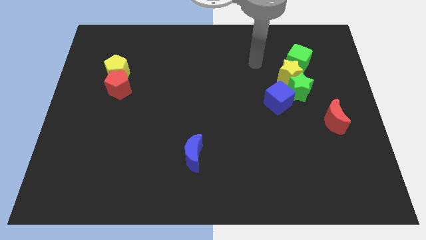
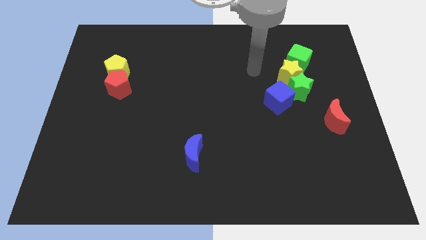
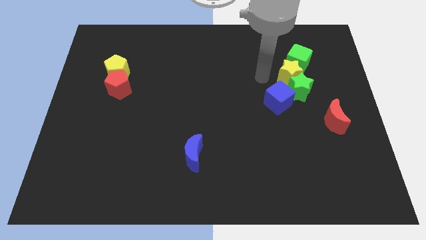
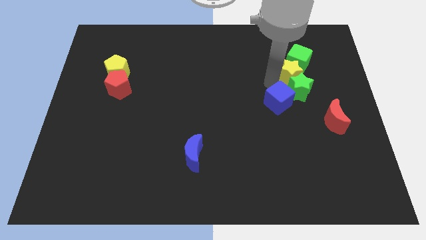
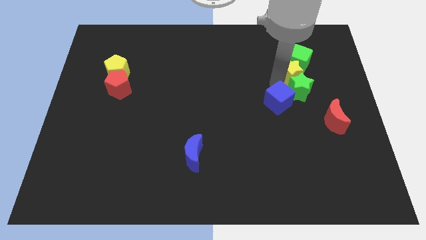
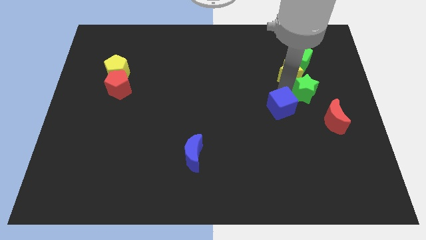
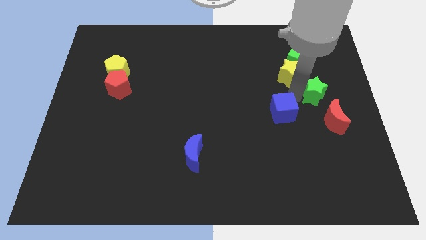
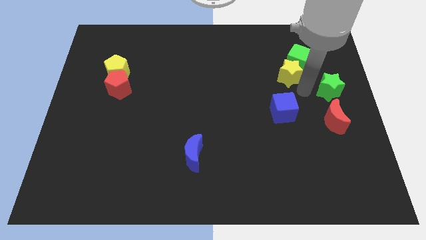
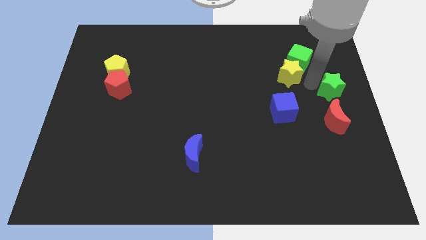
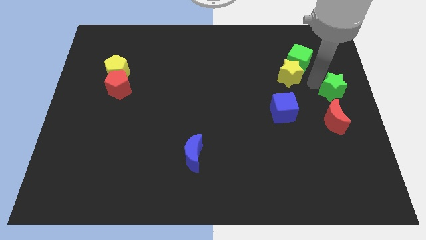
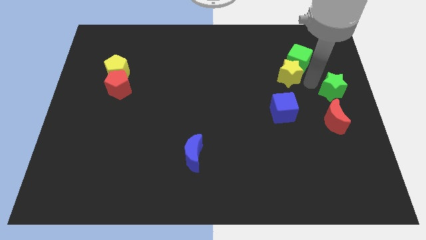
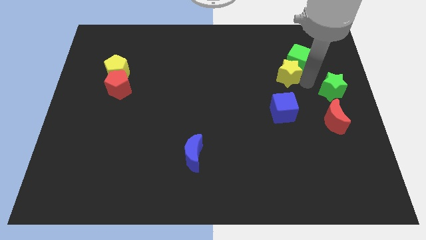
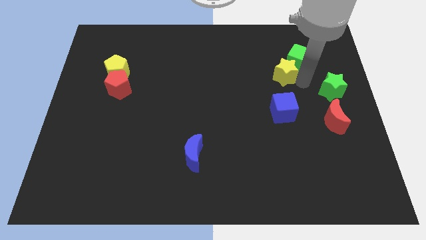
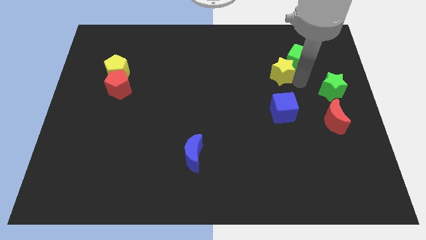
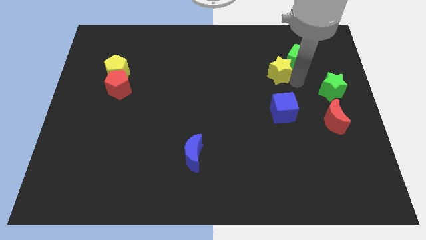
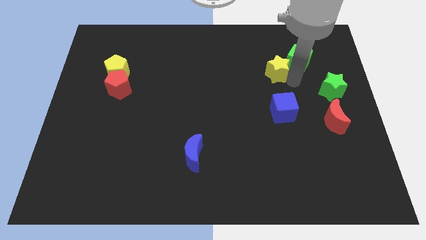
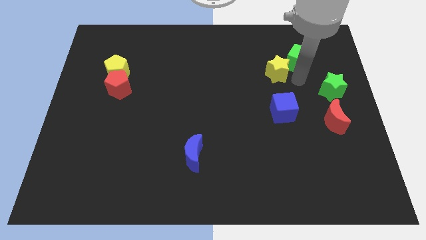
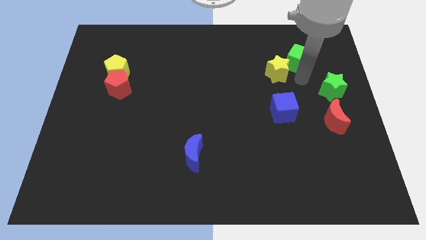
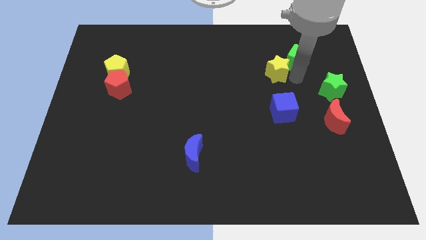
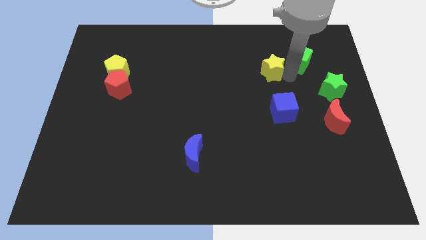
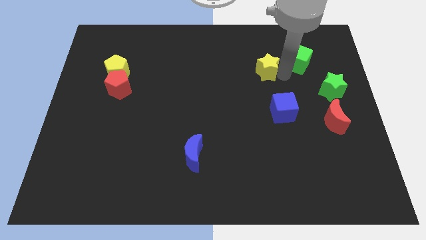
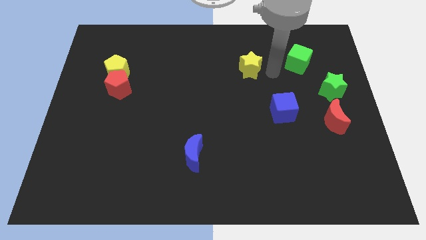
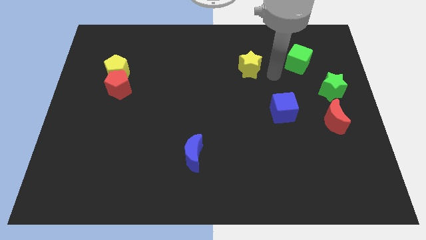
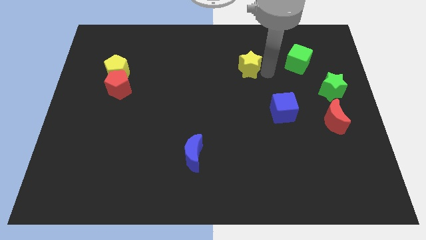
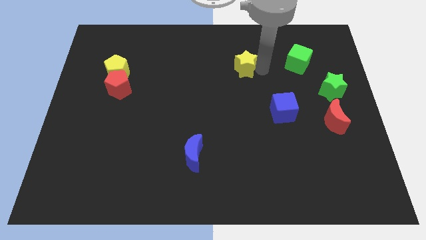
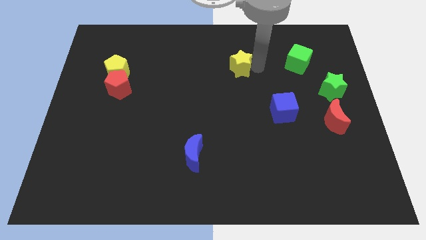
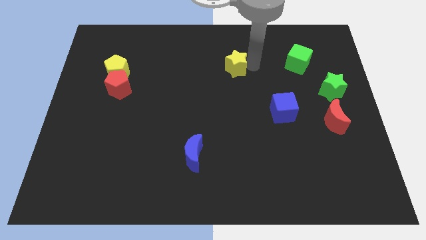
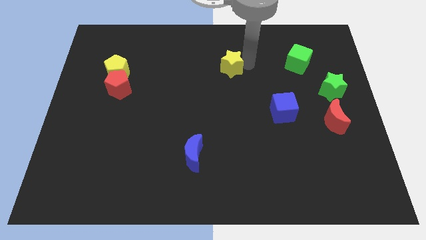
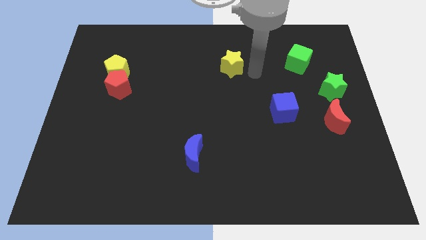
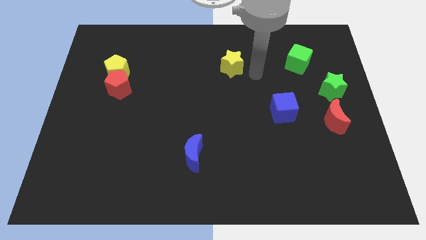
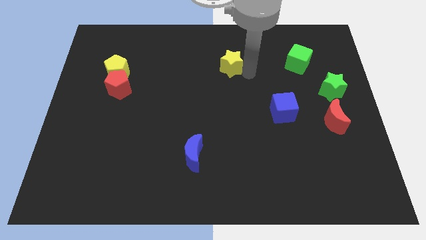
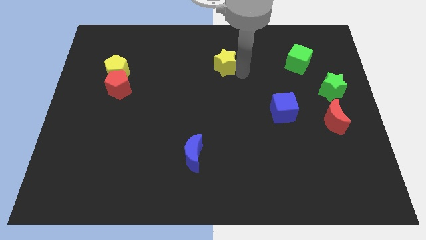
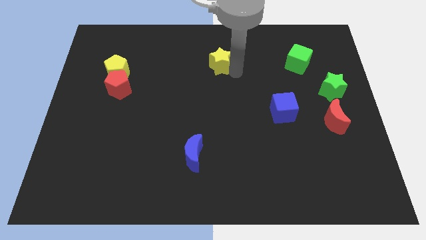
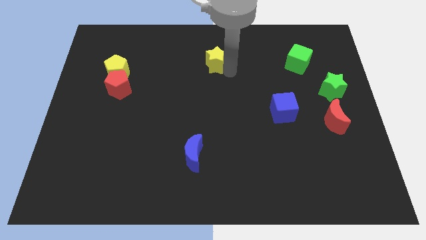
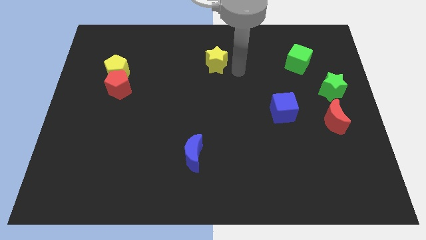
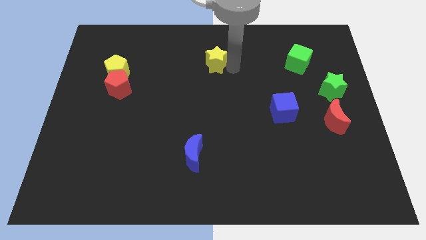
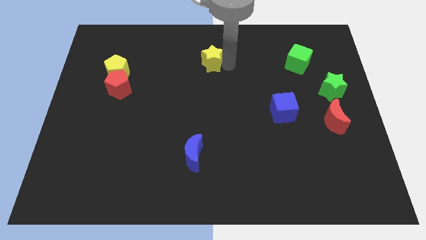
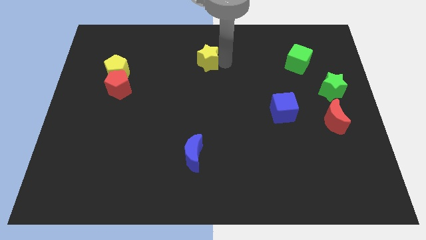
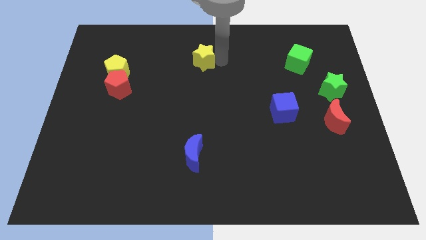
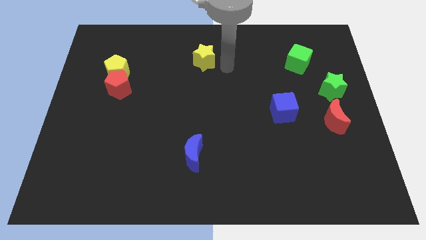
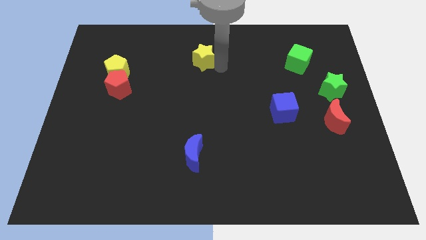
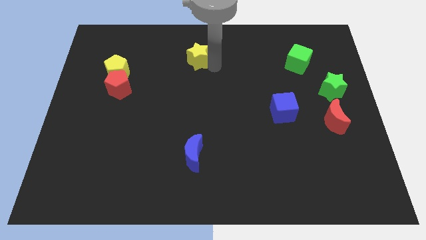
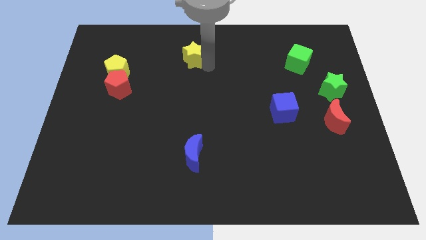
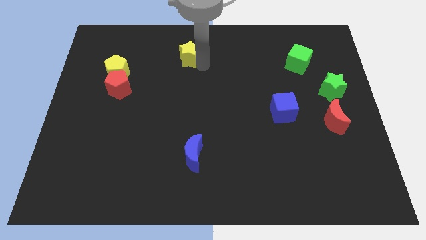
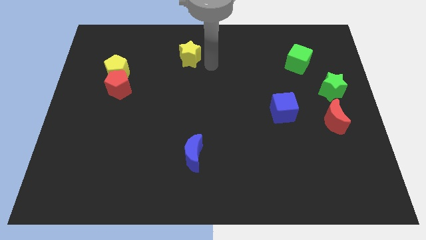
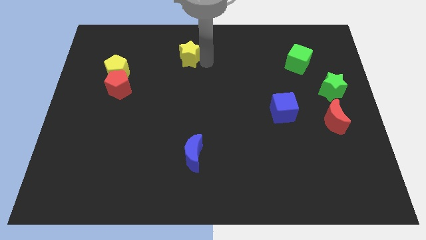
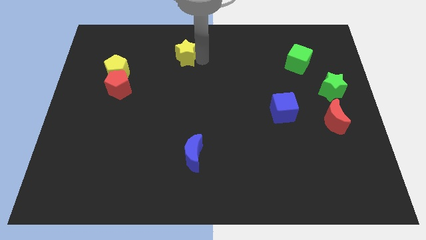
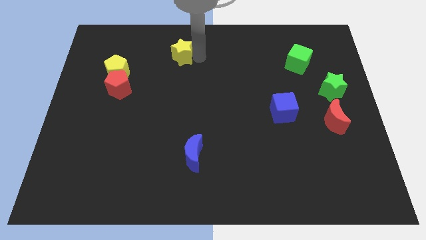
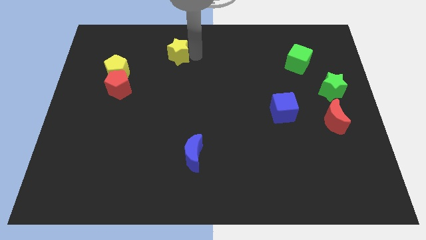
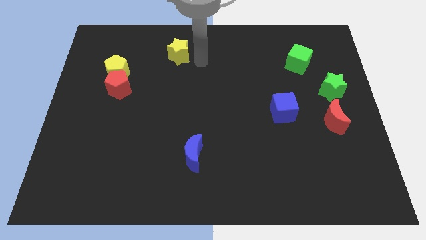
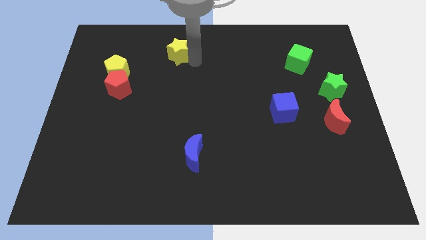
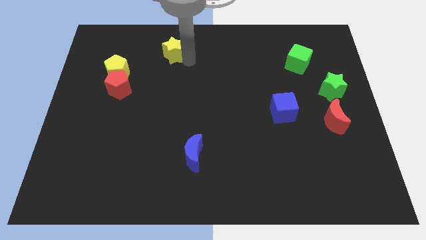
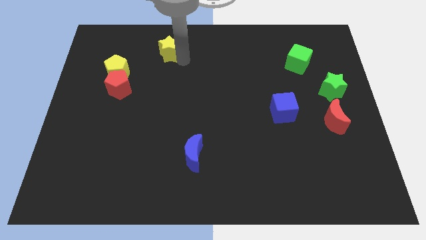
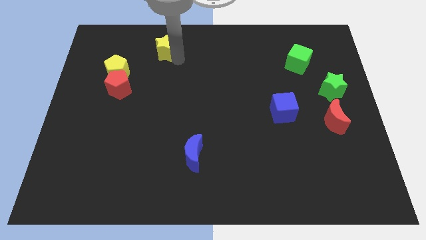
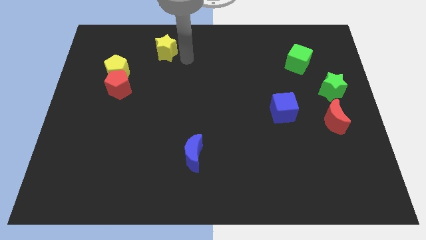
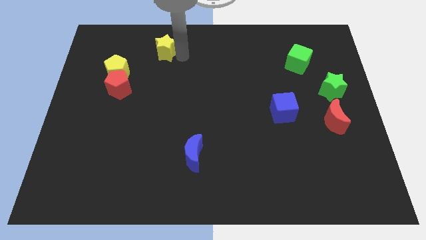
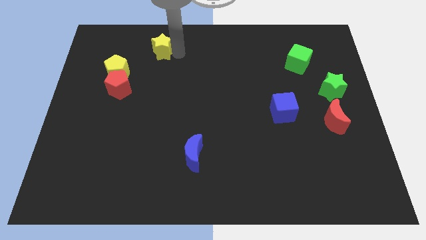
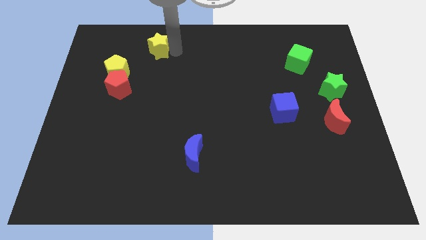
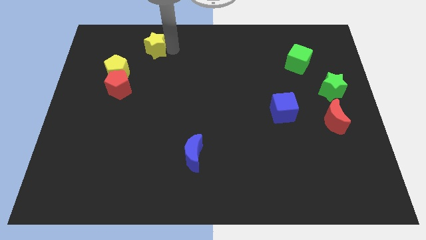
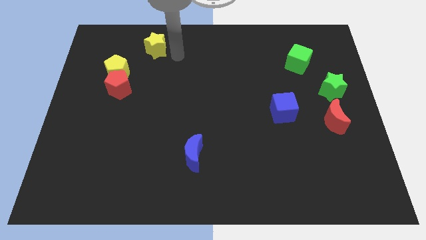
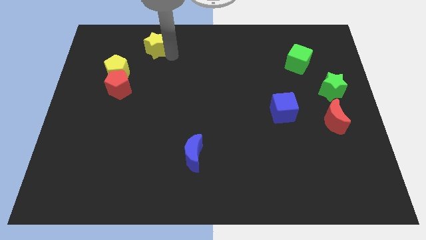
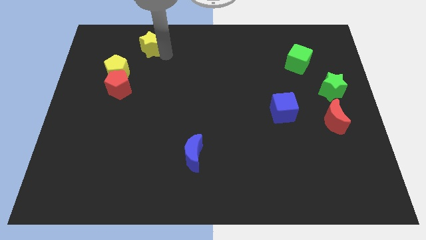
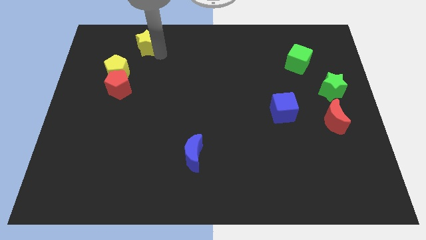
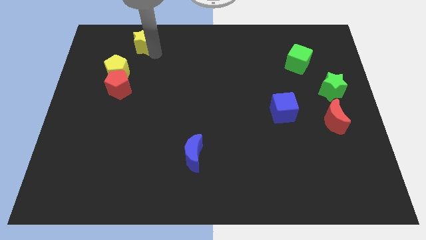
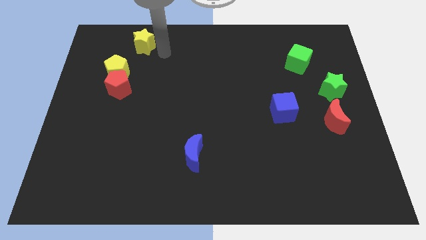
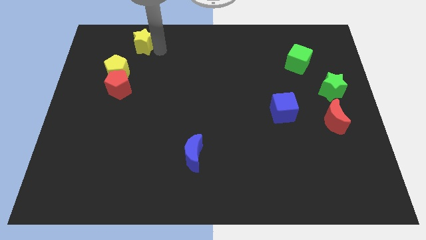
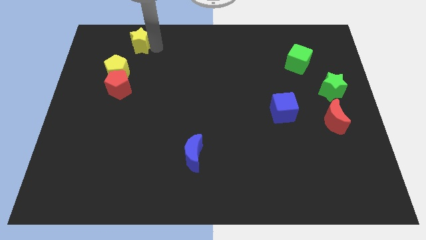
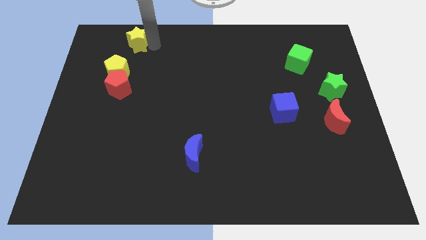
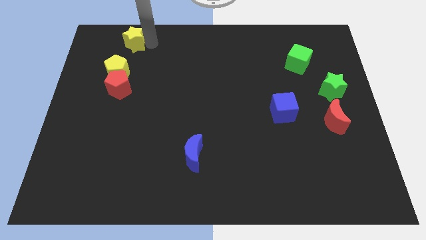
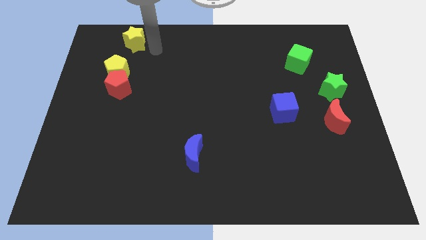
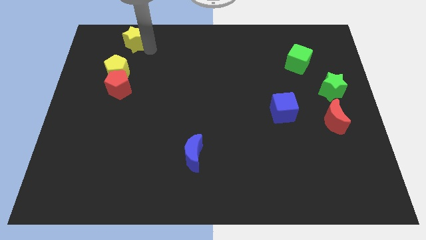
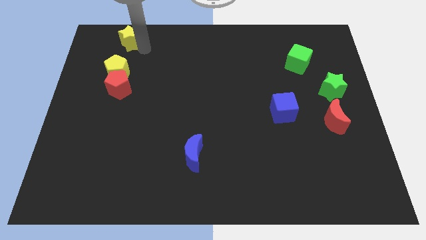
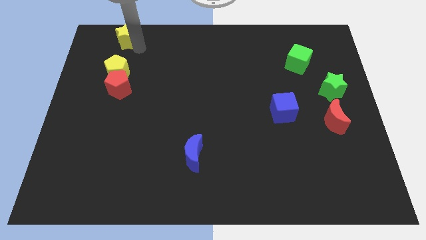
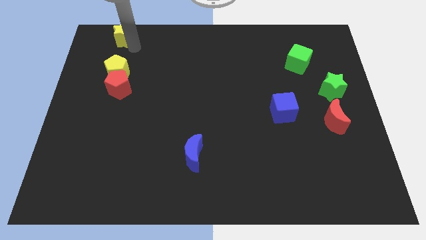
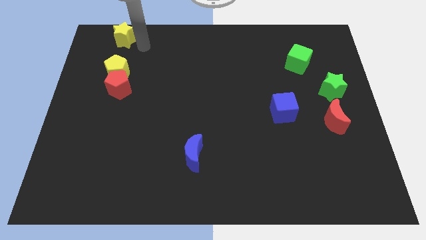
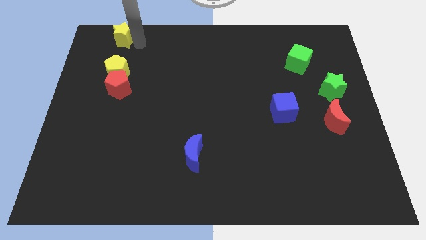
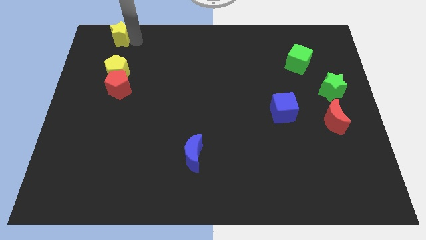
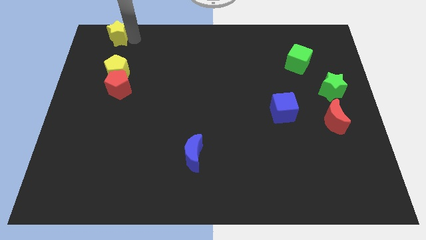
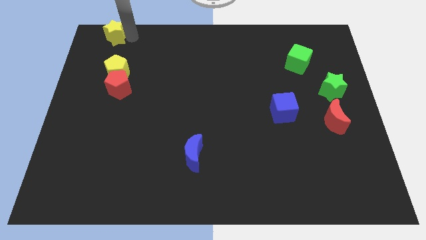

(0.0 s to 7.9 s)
move the yellow star to the top left of the board
